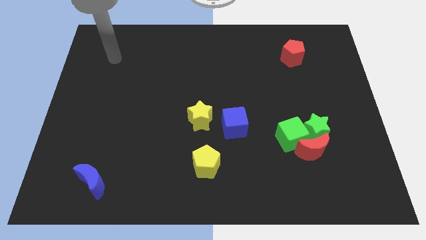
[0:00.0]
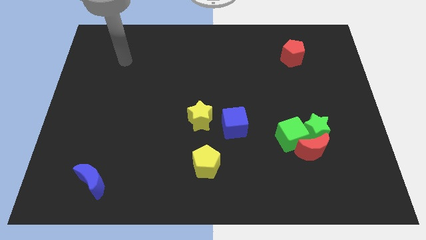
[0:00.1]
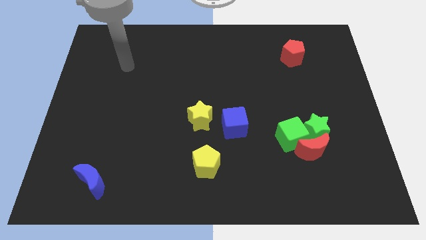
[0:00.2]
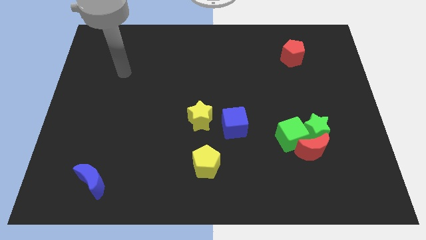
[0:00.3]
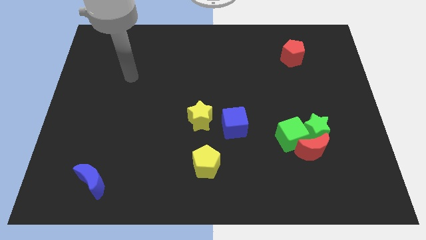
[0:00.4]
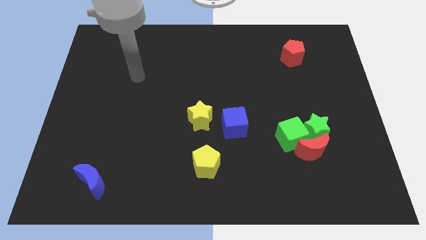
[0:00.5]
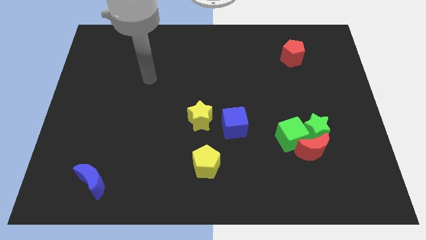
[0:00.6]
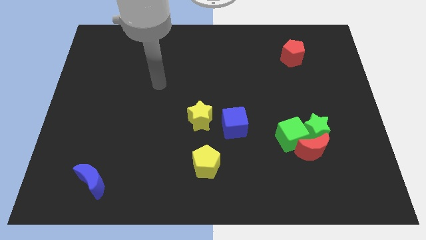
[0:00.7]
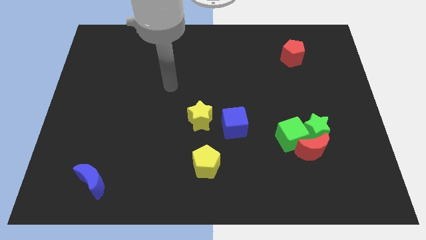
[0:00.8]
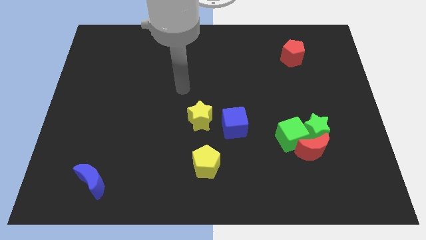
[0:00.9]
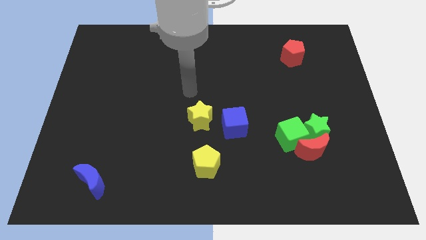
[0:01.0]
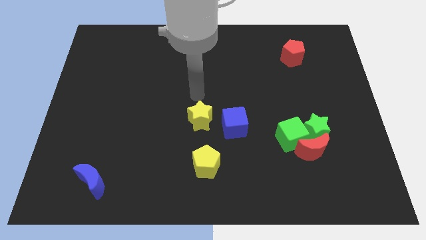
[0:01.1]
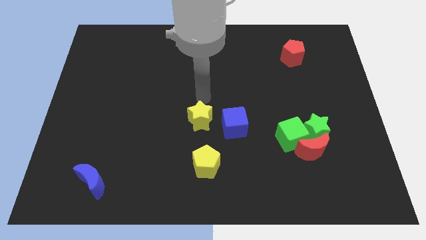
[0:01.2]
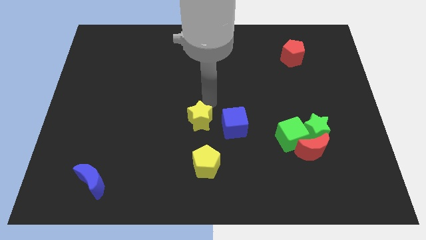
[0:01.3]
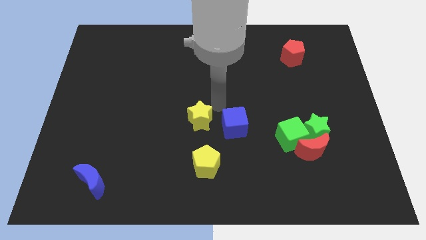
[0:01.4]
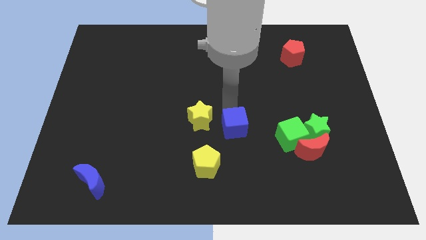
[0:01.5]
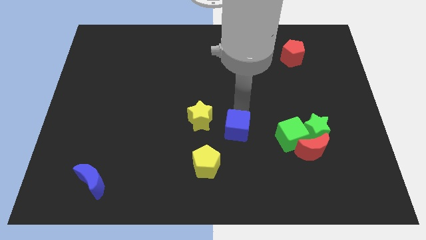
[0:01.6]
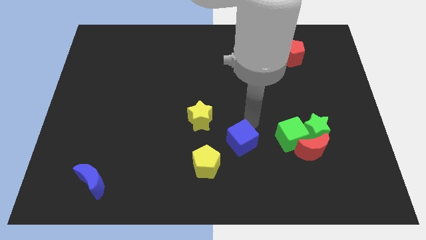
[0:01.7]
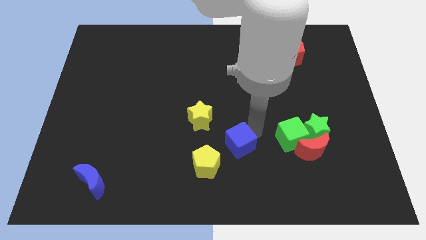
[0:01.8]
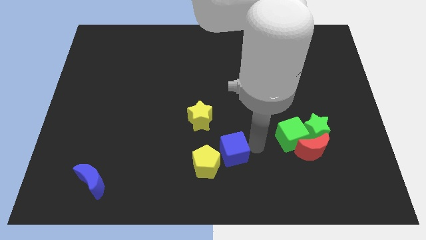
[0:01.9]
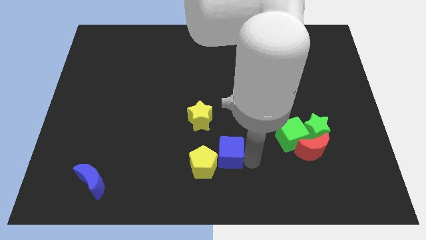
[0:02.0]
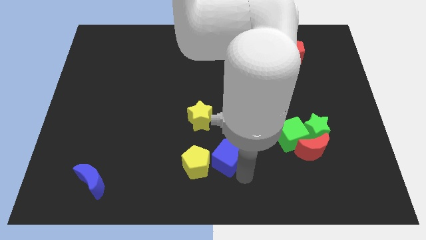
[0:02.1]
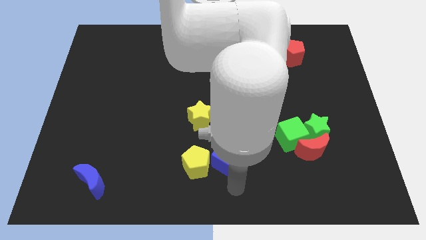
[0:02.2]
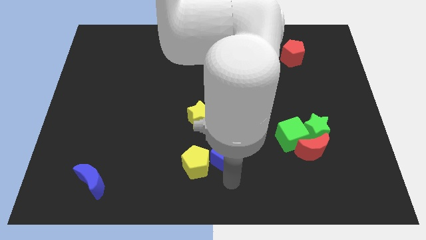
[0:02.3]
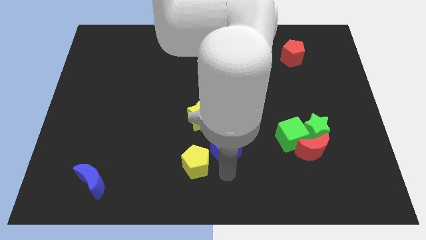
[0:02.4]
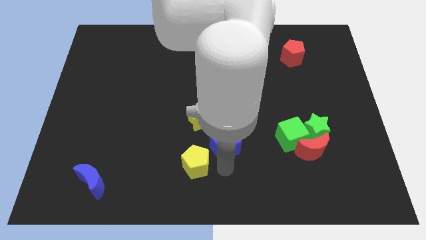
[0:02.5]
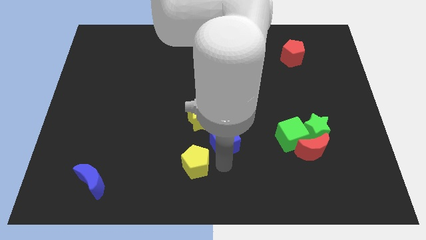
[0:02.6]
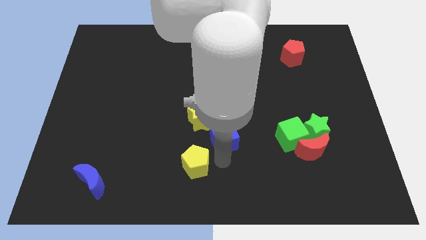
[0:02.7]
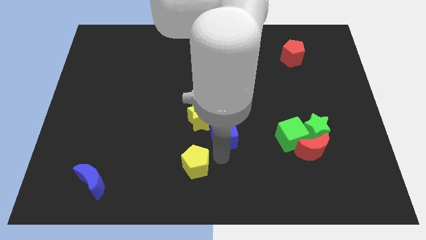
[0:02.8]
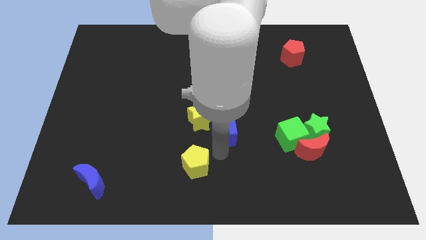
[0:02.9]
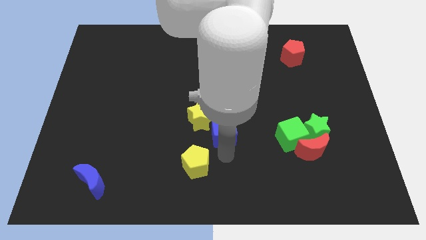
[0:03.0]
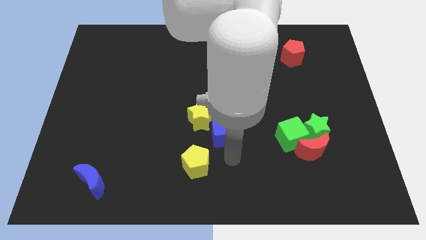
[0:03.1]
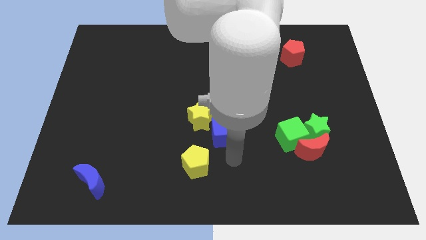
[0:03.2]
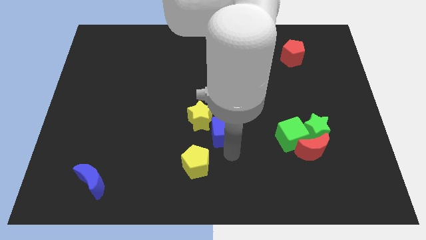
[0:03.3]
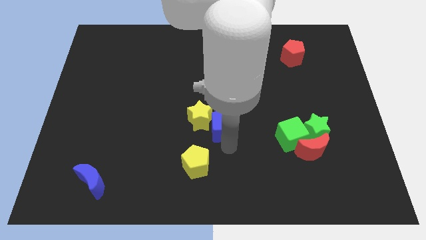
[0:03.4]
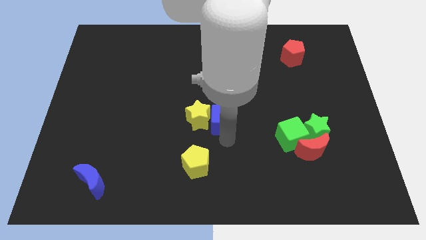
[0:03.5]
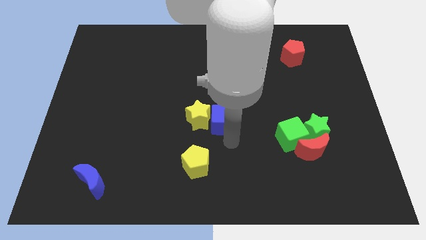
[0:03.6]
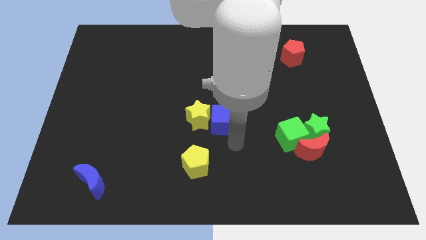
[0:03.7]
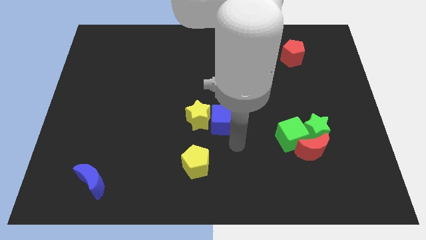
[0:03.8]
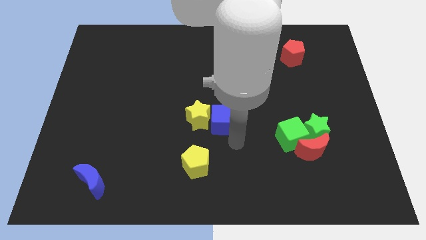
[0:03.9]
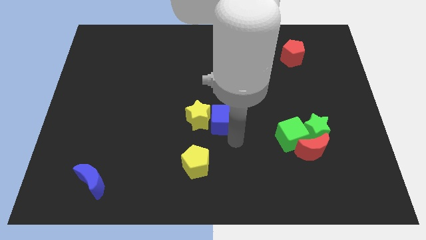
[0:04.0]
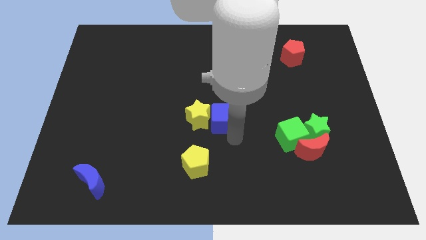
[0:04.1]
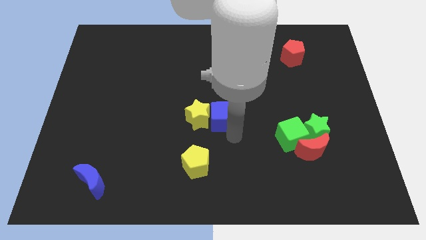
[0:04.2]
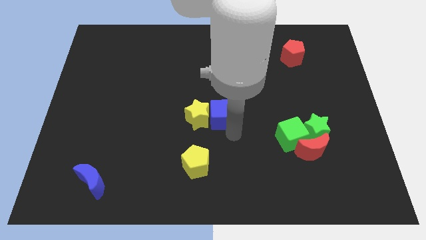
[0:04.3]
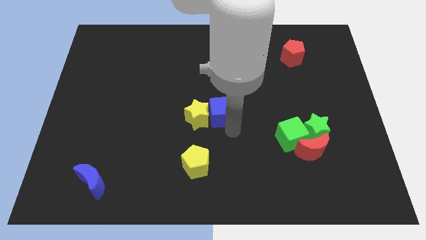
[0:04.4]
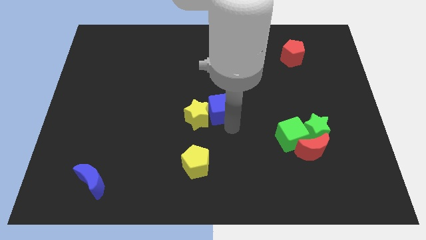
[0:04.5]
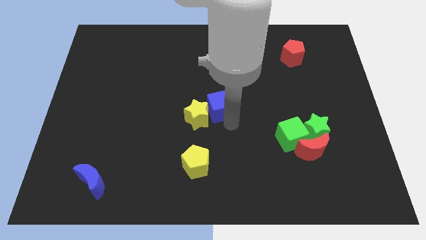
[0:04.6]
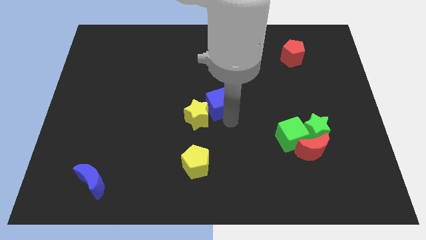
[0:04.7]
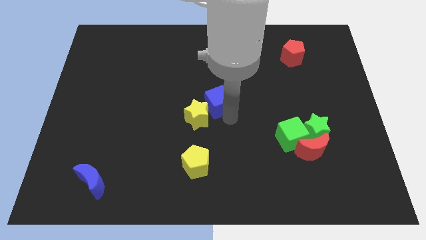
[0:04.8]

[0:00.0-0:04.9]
push the blue cube somewhat upwards and left diagonally

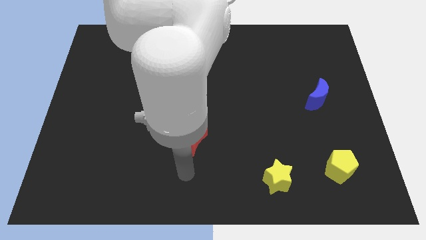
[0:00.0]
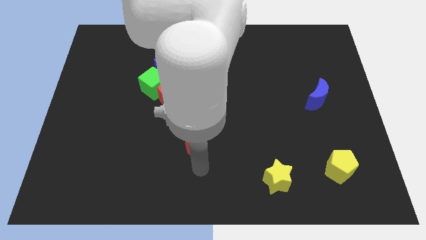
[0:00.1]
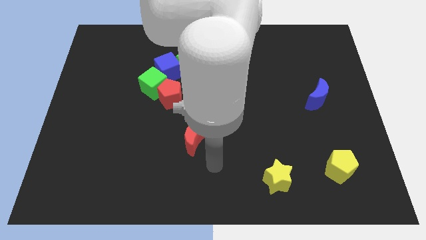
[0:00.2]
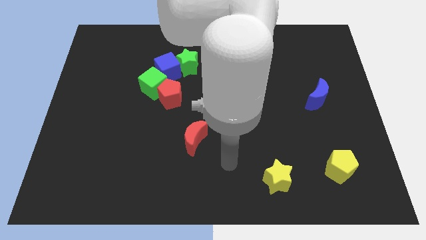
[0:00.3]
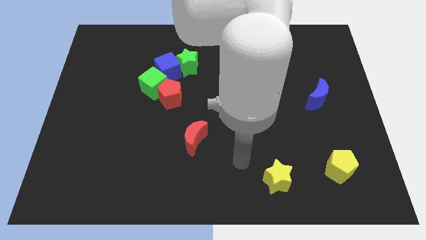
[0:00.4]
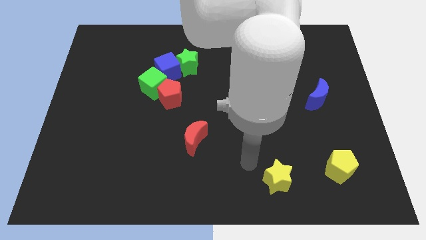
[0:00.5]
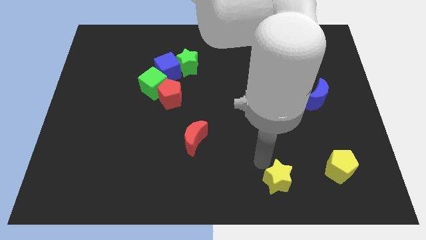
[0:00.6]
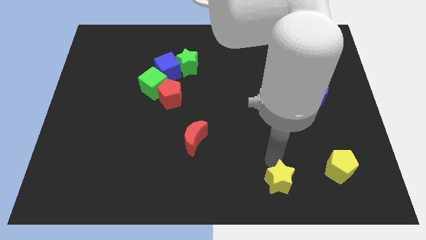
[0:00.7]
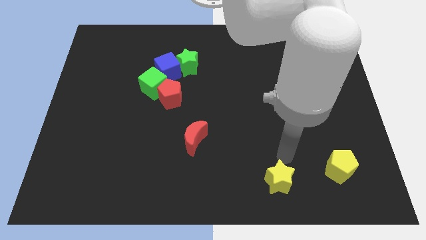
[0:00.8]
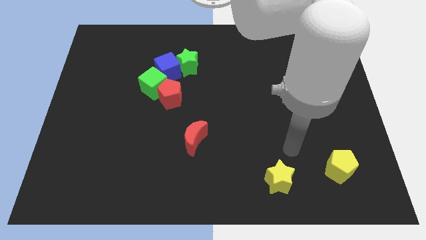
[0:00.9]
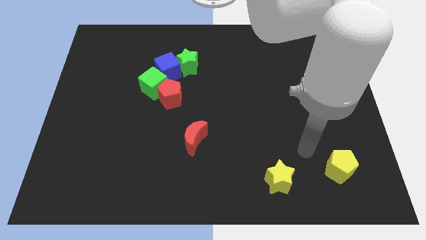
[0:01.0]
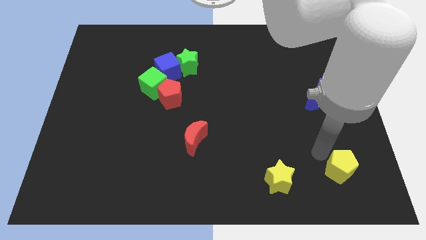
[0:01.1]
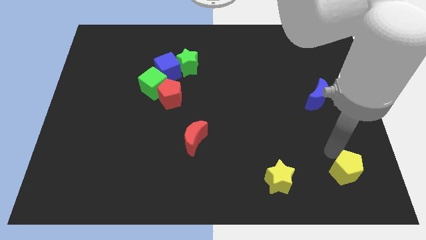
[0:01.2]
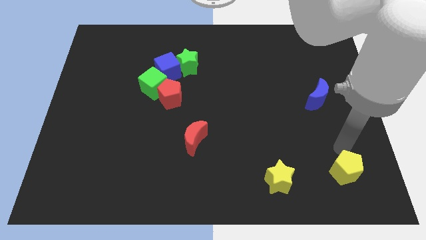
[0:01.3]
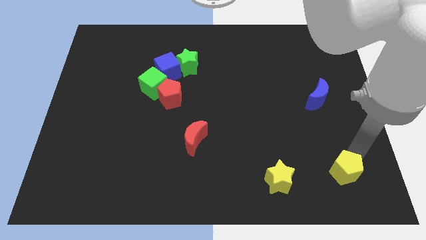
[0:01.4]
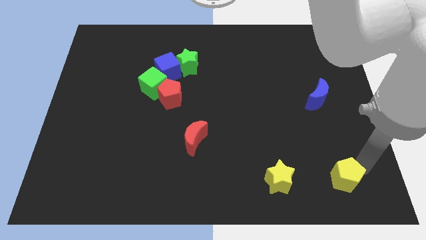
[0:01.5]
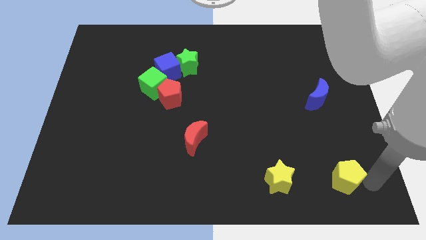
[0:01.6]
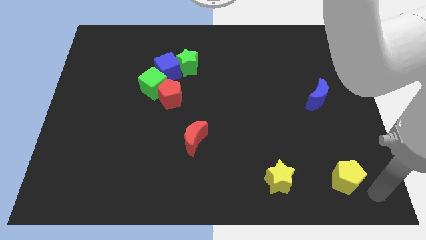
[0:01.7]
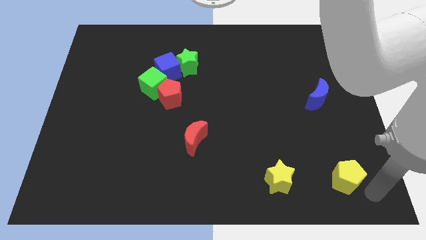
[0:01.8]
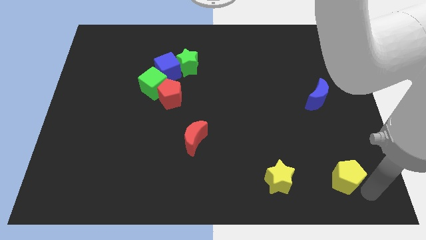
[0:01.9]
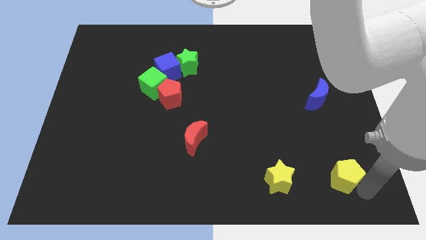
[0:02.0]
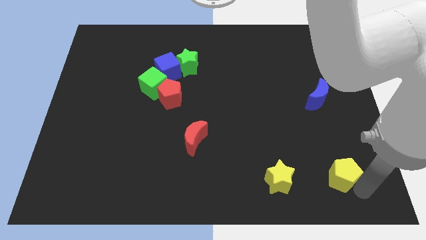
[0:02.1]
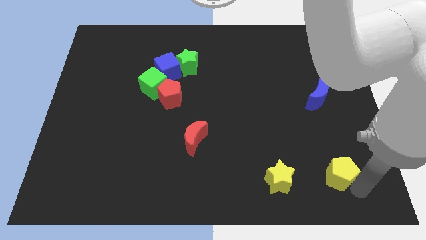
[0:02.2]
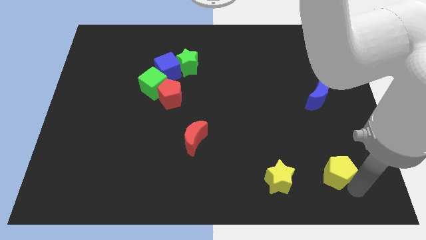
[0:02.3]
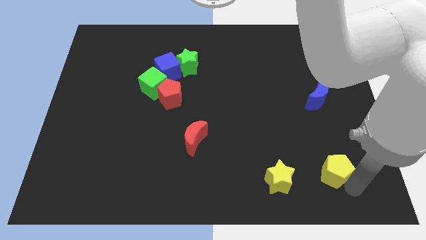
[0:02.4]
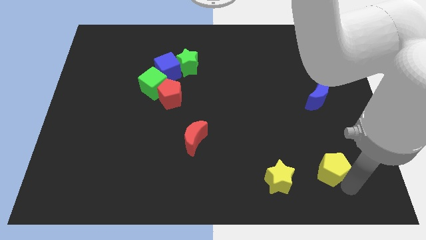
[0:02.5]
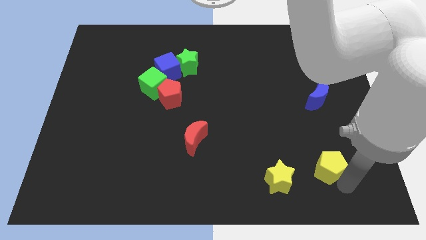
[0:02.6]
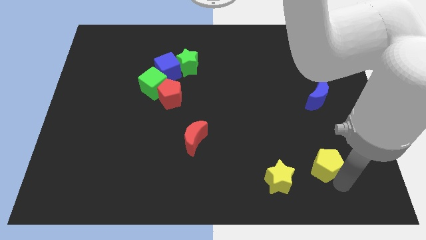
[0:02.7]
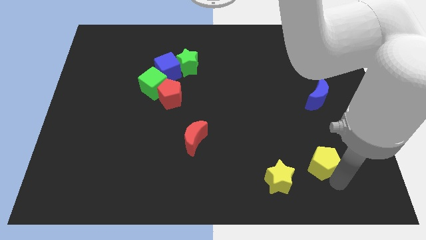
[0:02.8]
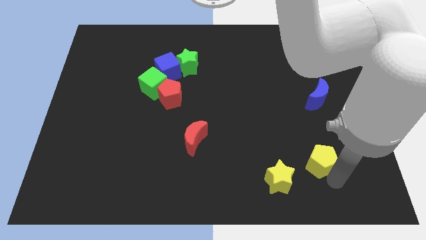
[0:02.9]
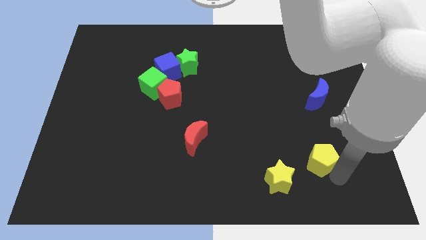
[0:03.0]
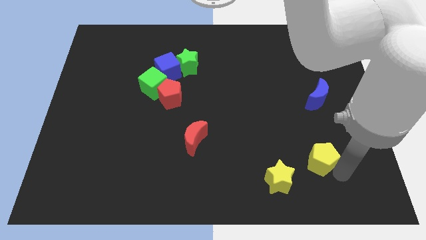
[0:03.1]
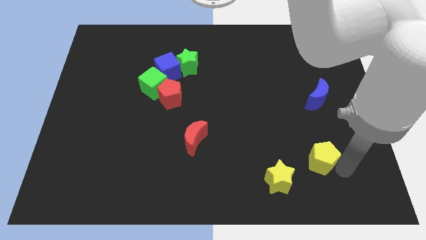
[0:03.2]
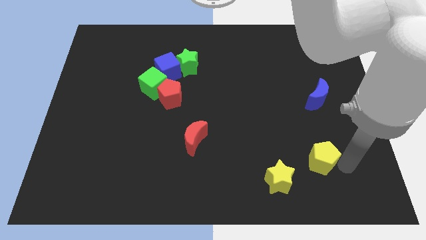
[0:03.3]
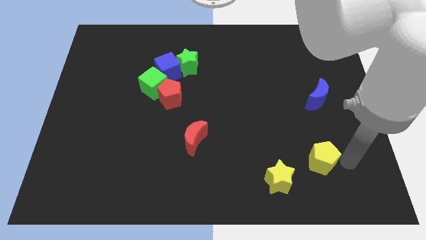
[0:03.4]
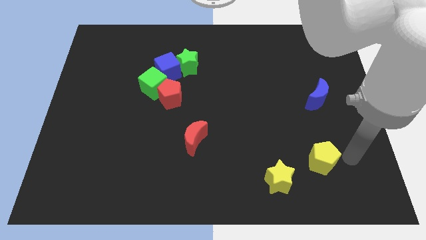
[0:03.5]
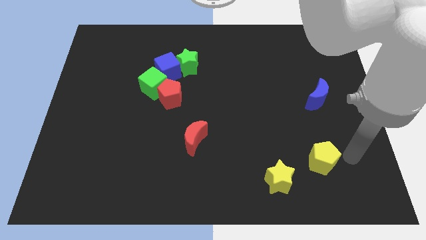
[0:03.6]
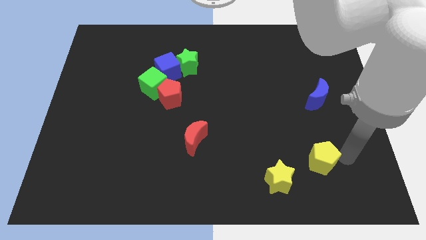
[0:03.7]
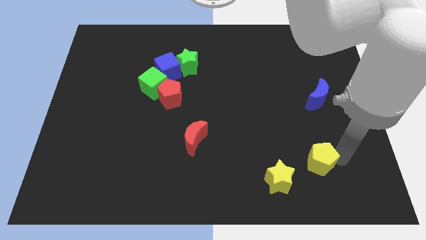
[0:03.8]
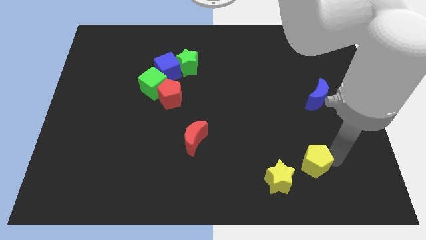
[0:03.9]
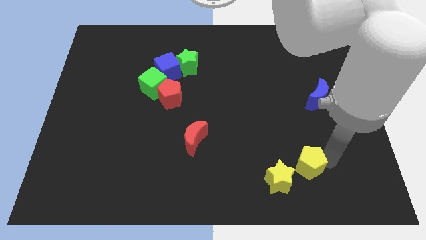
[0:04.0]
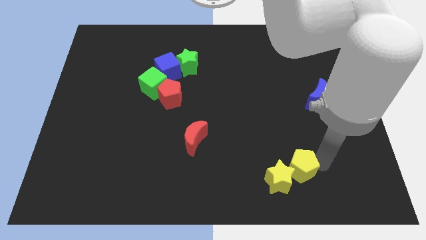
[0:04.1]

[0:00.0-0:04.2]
move the yellow pentagon to the left a little bit
